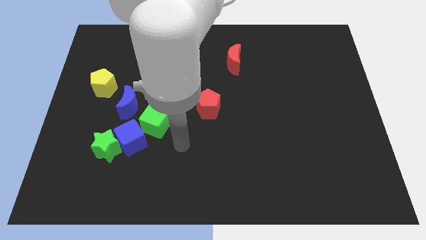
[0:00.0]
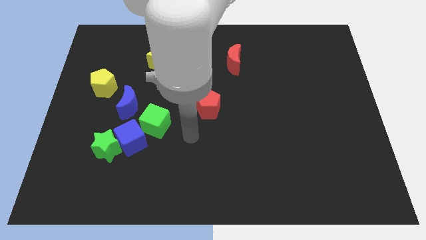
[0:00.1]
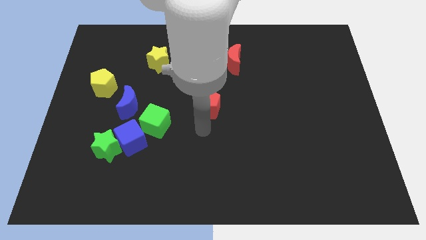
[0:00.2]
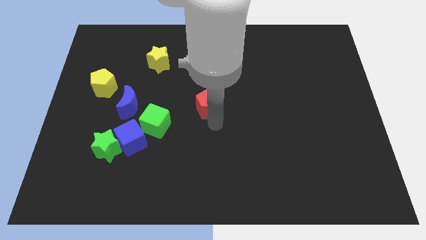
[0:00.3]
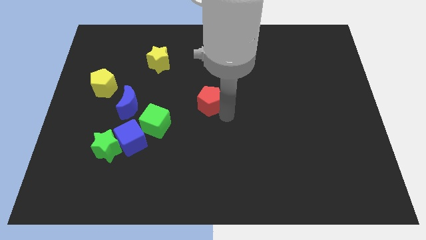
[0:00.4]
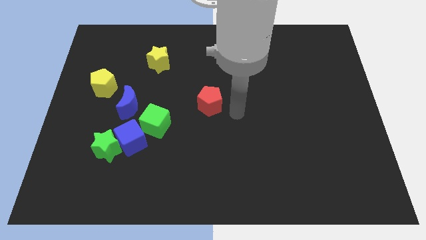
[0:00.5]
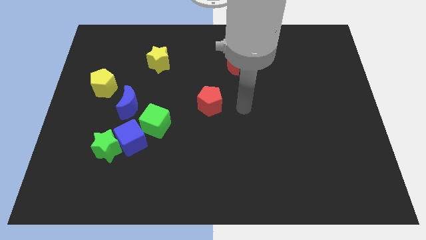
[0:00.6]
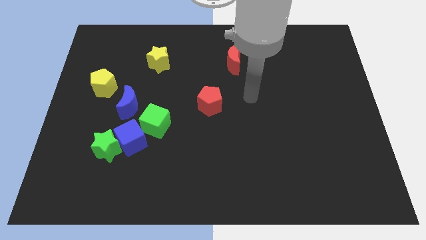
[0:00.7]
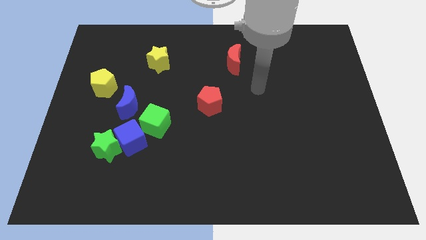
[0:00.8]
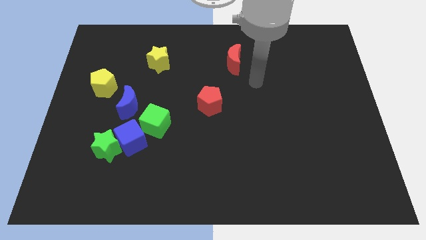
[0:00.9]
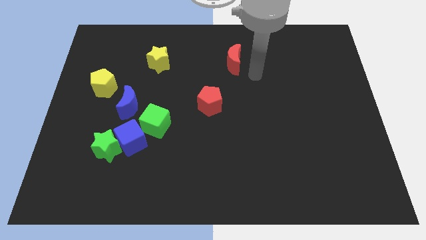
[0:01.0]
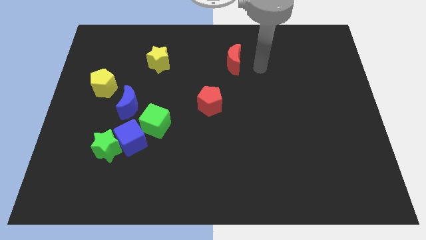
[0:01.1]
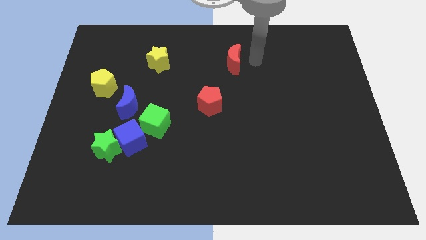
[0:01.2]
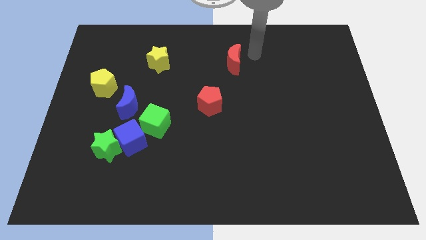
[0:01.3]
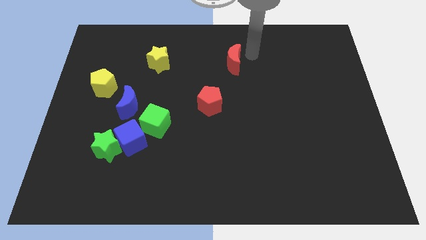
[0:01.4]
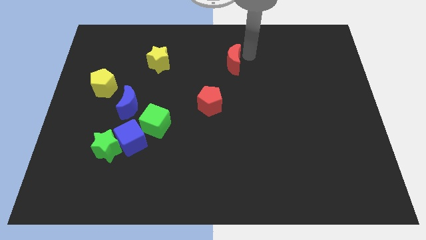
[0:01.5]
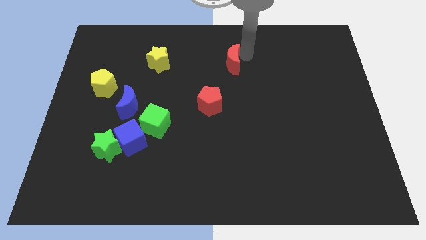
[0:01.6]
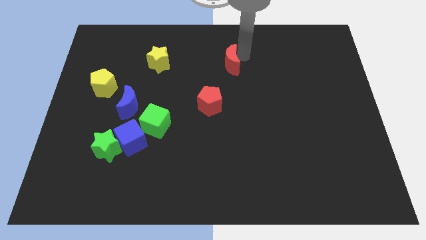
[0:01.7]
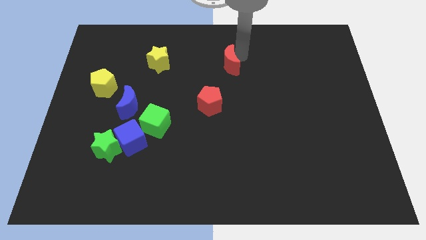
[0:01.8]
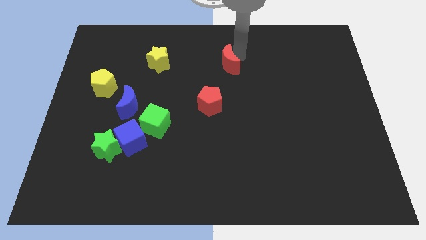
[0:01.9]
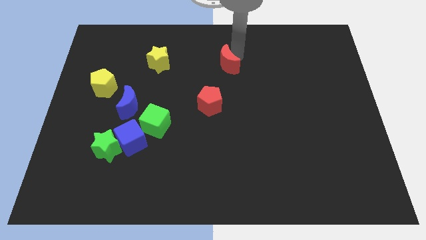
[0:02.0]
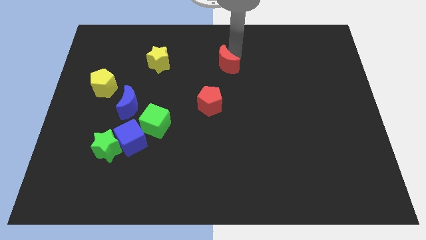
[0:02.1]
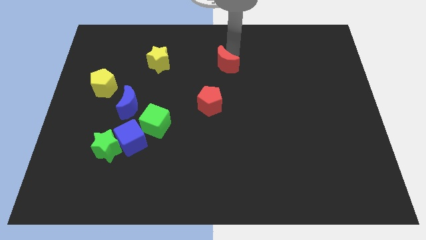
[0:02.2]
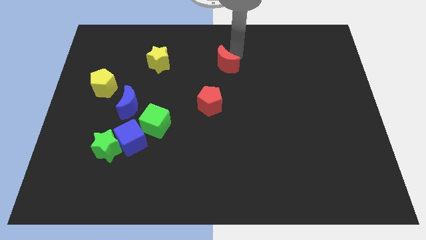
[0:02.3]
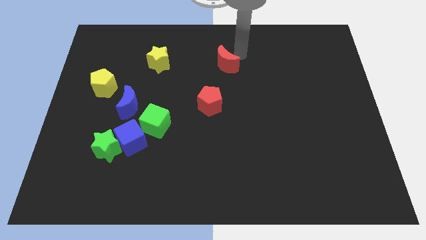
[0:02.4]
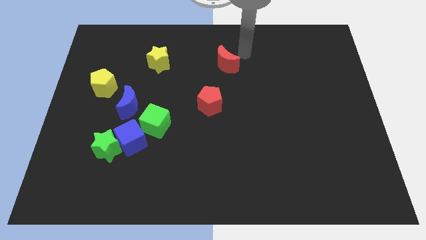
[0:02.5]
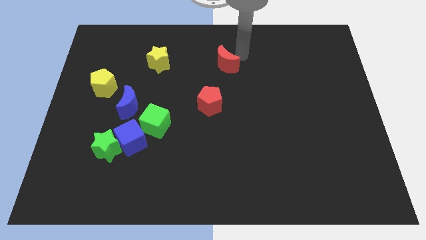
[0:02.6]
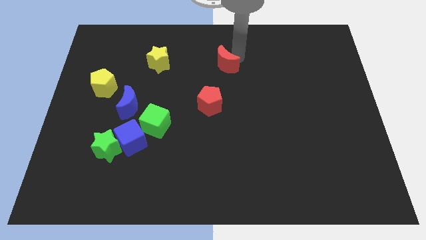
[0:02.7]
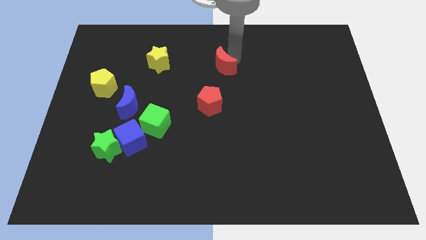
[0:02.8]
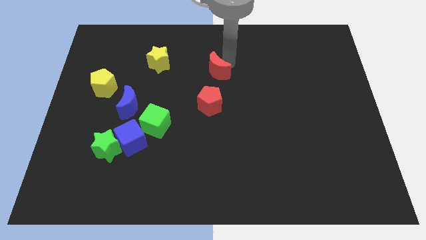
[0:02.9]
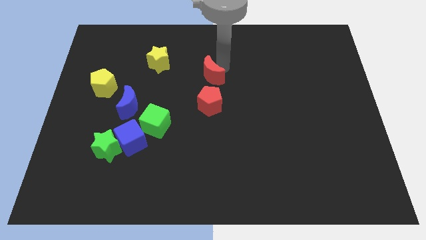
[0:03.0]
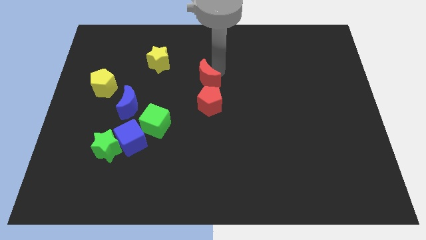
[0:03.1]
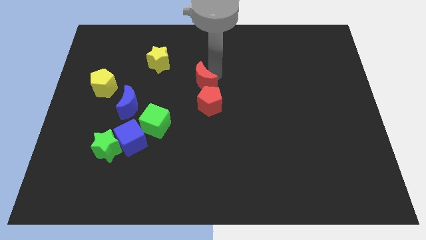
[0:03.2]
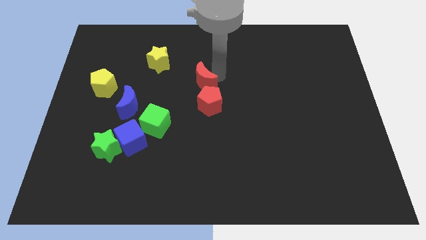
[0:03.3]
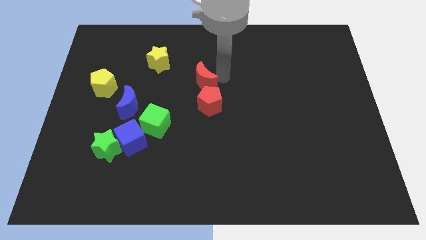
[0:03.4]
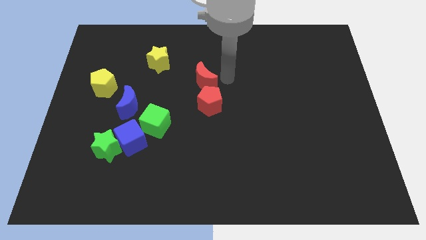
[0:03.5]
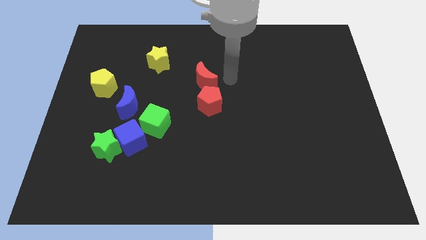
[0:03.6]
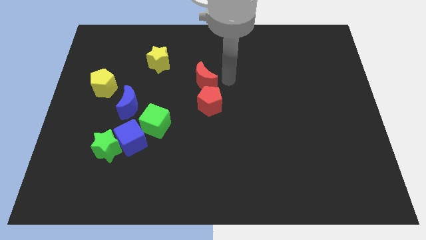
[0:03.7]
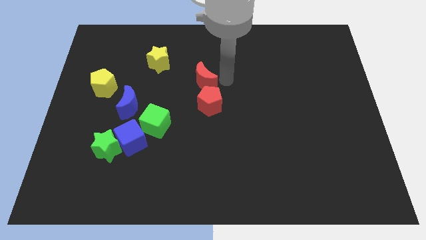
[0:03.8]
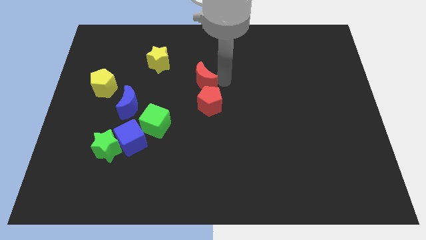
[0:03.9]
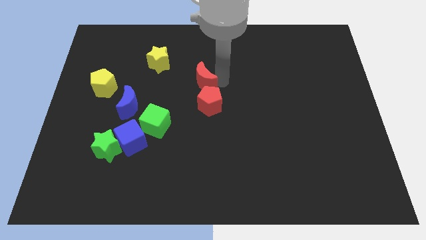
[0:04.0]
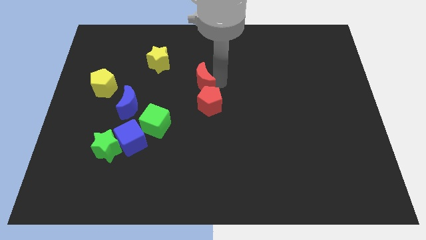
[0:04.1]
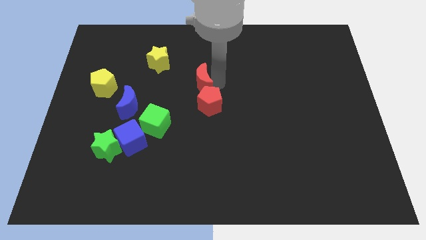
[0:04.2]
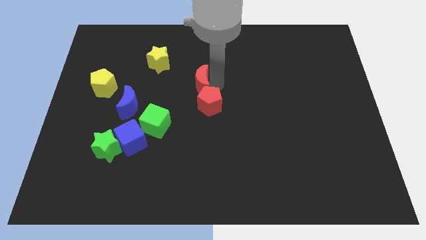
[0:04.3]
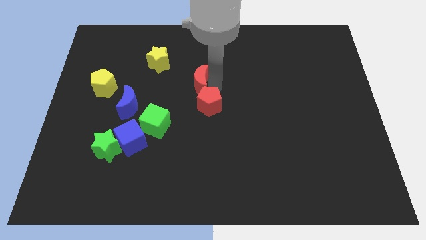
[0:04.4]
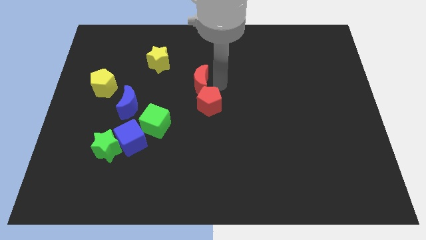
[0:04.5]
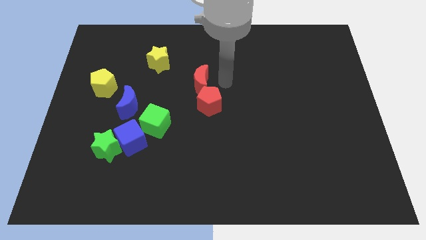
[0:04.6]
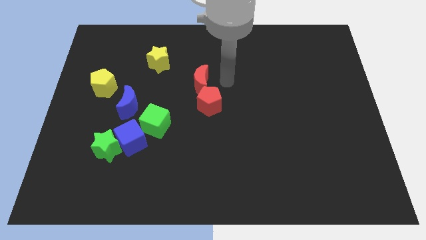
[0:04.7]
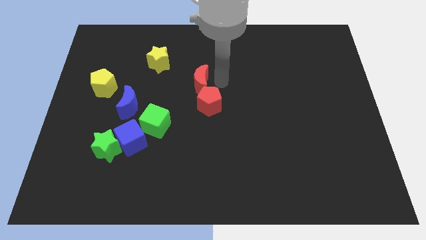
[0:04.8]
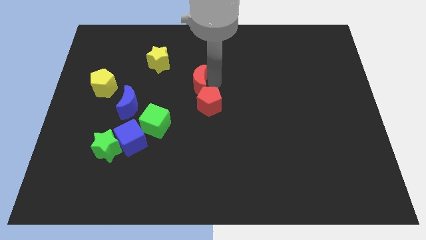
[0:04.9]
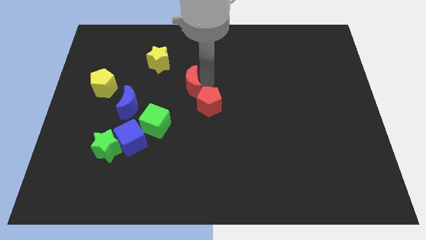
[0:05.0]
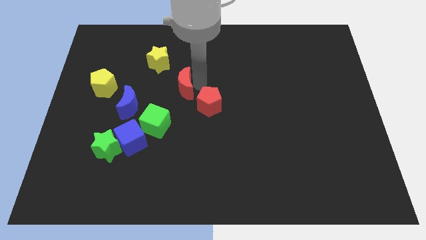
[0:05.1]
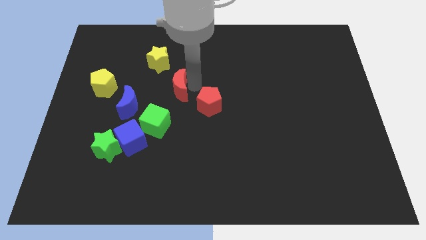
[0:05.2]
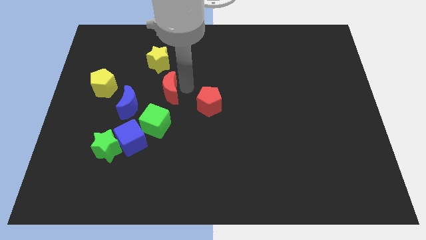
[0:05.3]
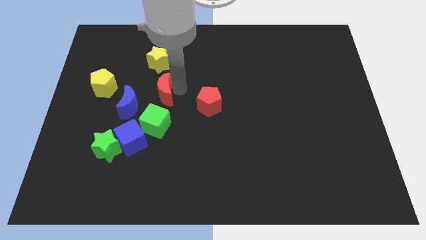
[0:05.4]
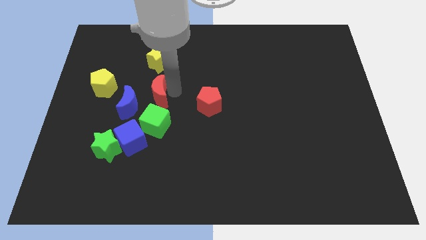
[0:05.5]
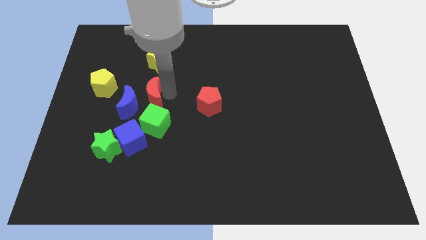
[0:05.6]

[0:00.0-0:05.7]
push the red moon next to the blue moon
